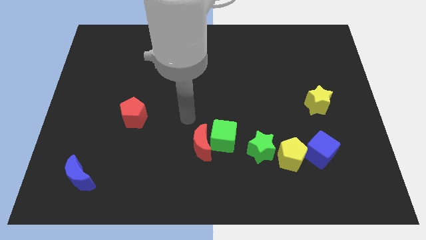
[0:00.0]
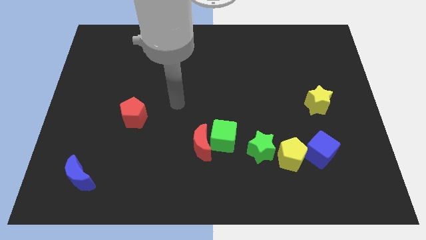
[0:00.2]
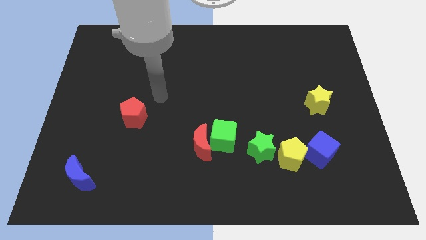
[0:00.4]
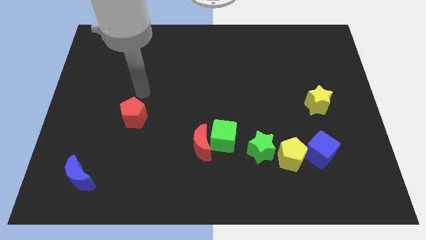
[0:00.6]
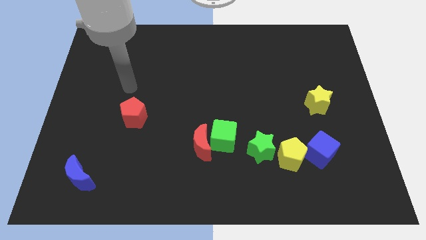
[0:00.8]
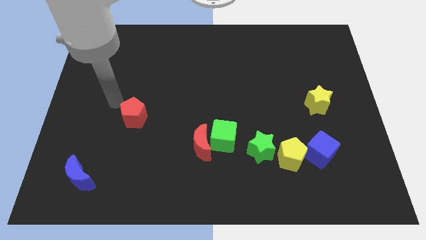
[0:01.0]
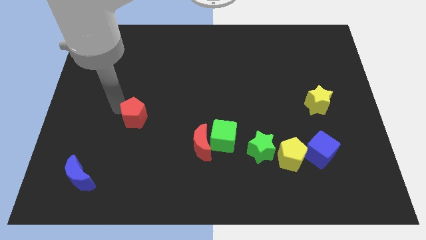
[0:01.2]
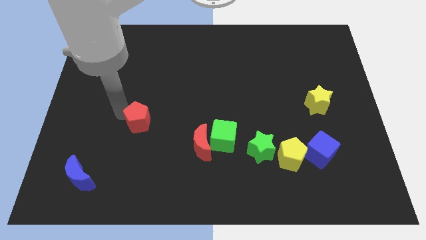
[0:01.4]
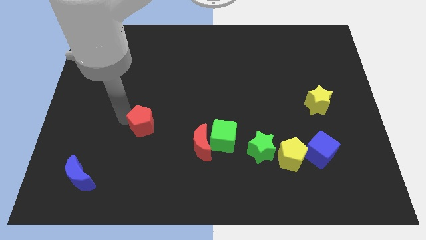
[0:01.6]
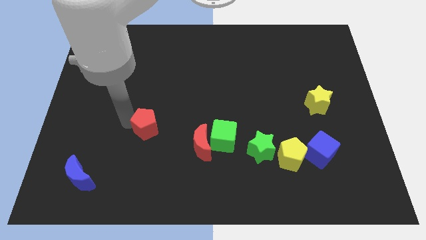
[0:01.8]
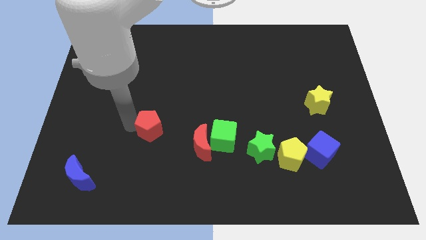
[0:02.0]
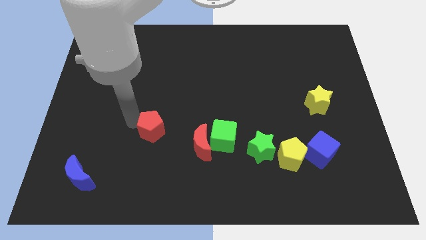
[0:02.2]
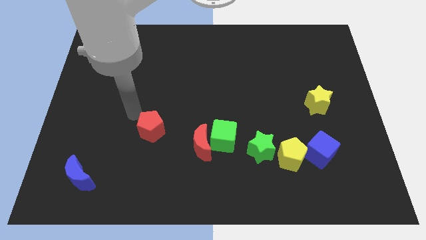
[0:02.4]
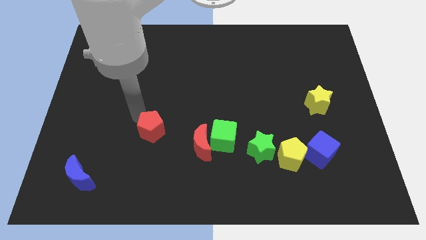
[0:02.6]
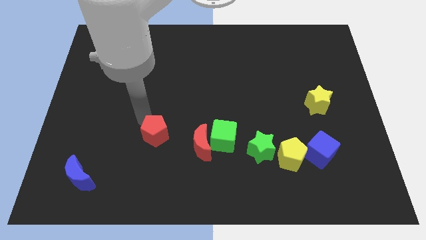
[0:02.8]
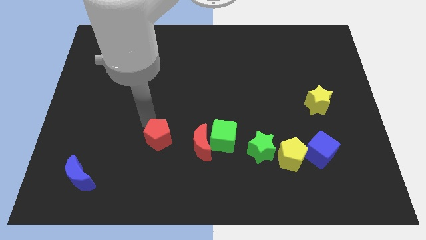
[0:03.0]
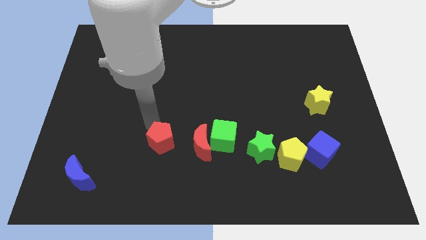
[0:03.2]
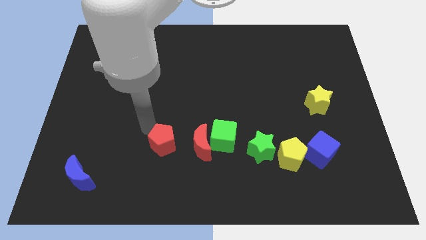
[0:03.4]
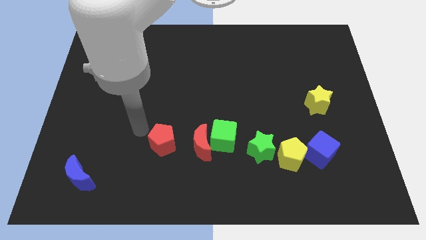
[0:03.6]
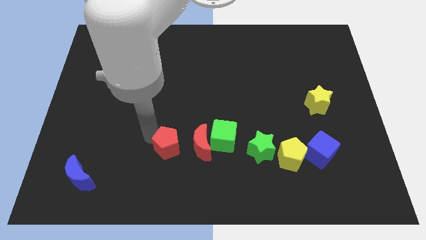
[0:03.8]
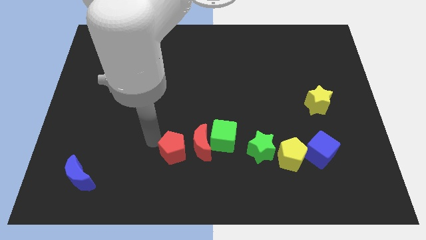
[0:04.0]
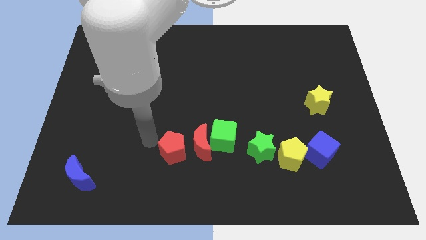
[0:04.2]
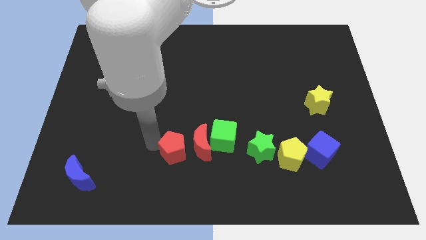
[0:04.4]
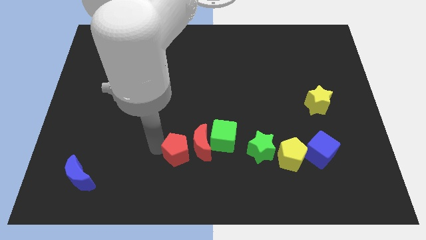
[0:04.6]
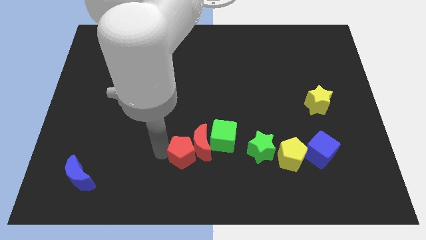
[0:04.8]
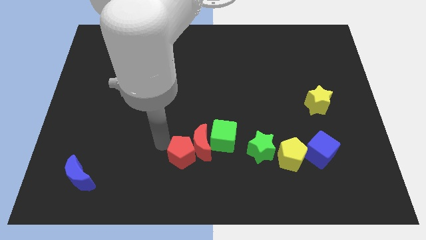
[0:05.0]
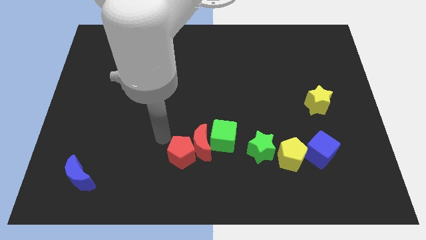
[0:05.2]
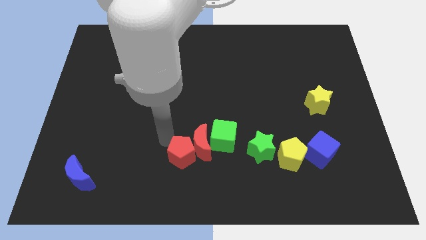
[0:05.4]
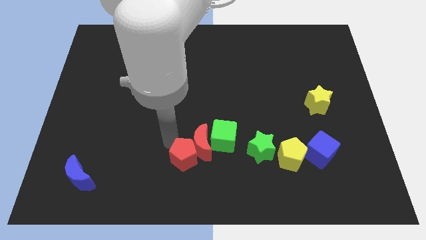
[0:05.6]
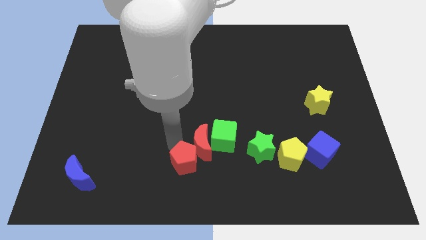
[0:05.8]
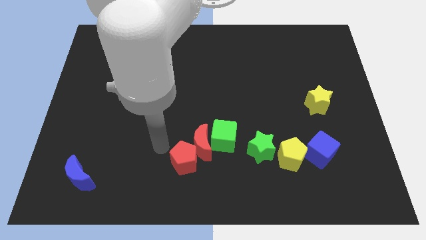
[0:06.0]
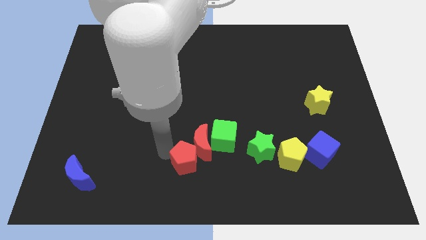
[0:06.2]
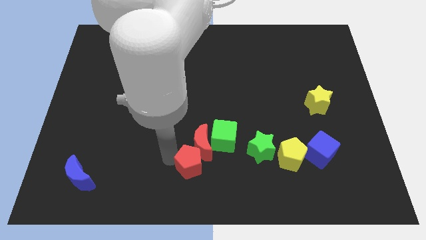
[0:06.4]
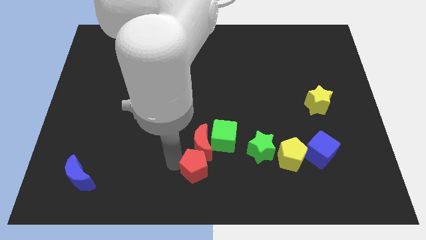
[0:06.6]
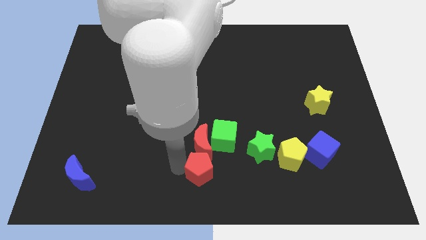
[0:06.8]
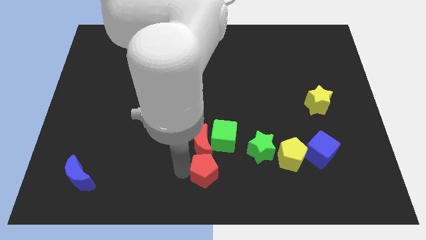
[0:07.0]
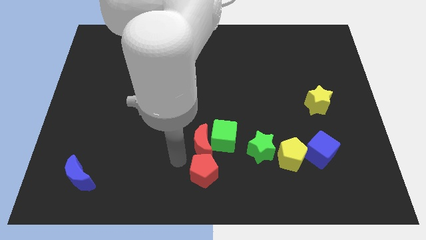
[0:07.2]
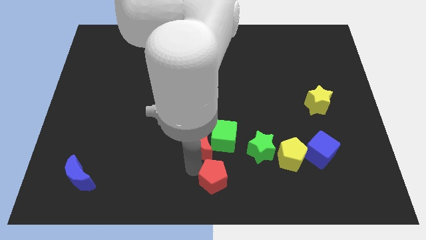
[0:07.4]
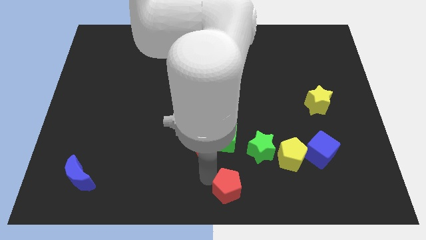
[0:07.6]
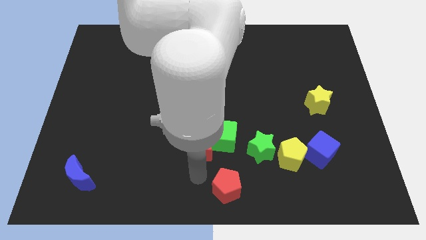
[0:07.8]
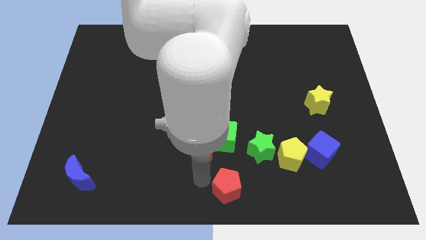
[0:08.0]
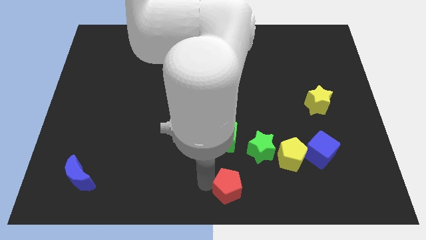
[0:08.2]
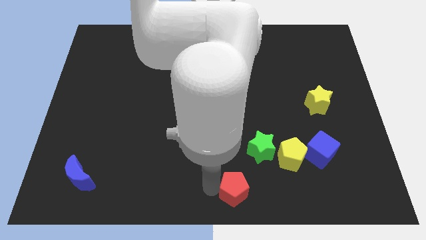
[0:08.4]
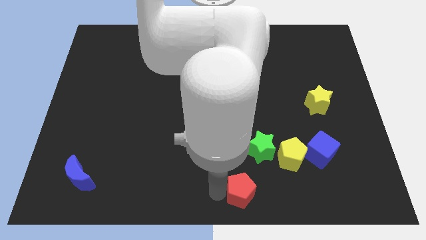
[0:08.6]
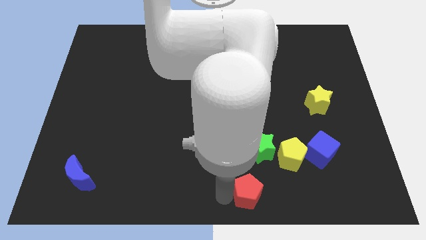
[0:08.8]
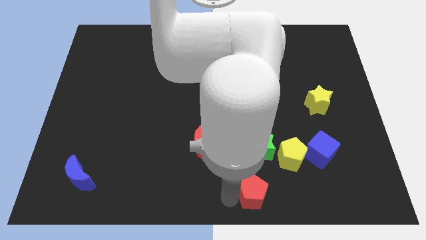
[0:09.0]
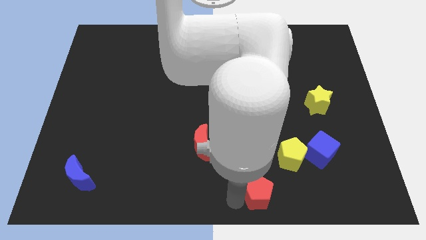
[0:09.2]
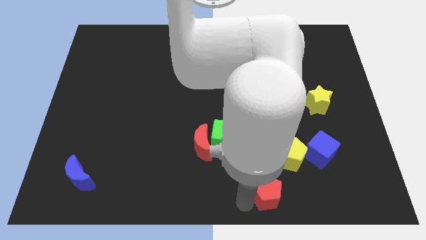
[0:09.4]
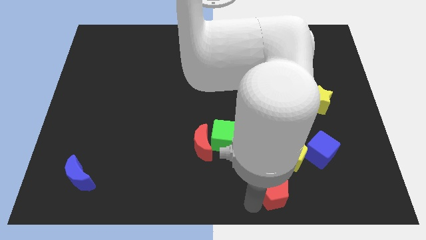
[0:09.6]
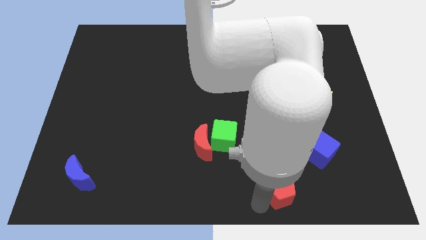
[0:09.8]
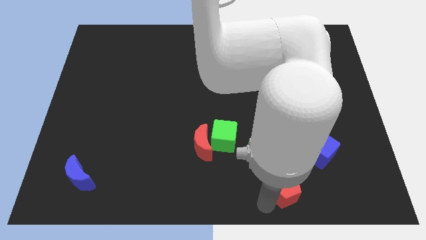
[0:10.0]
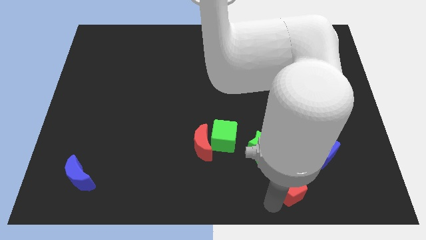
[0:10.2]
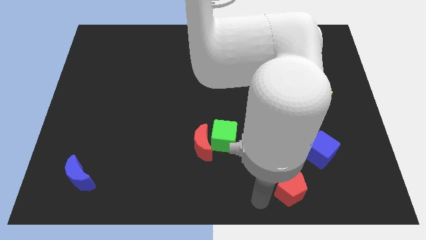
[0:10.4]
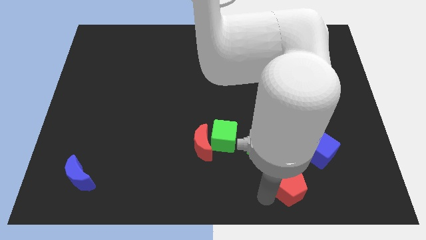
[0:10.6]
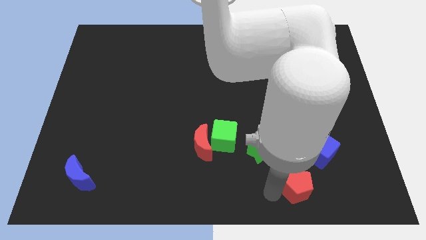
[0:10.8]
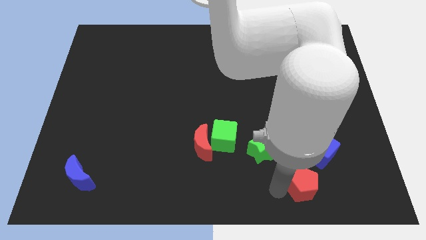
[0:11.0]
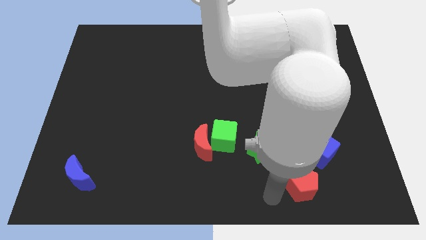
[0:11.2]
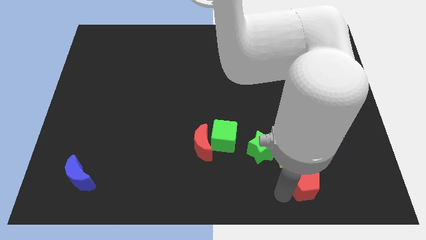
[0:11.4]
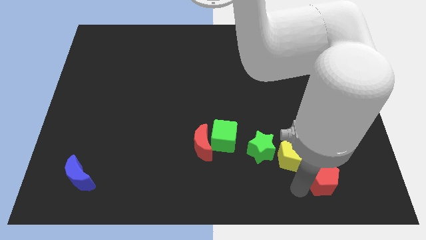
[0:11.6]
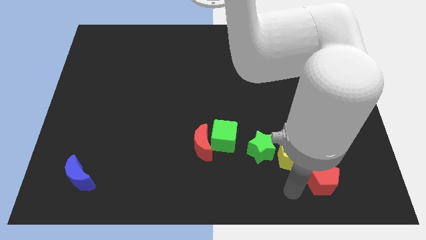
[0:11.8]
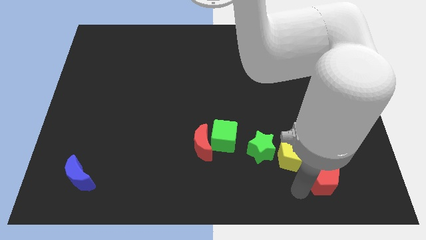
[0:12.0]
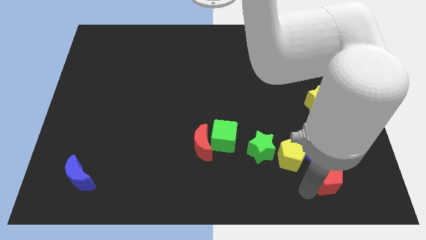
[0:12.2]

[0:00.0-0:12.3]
put the red pentagon to the bottom right side of the blue cube
